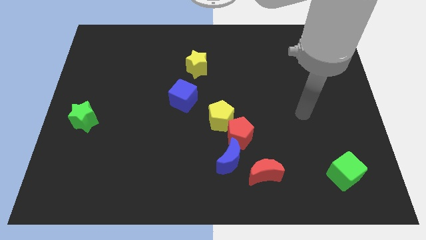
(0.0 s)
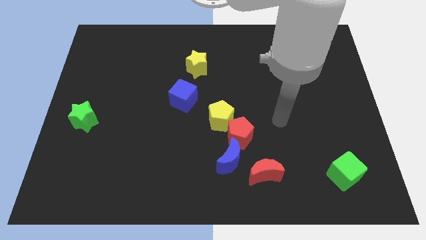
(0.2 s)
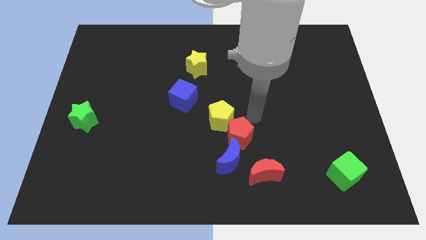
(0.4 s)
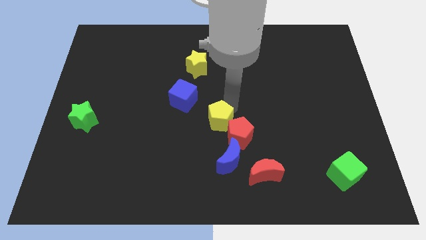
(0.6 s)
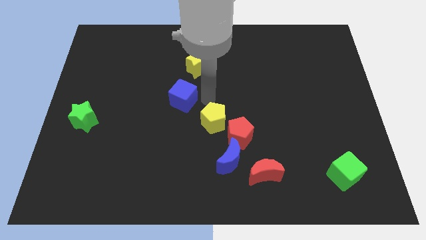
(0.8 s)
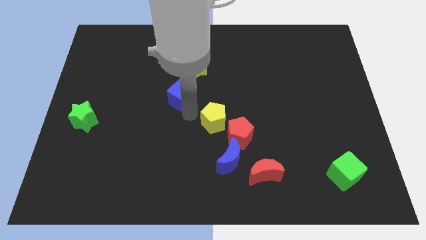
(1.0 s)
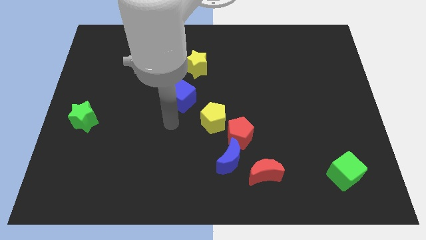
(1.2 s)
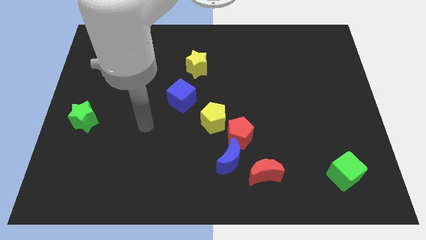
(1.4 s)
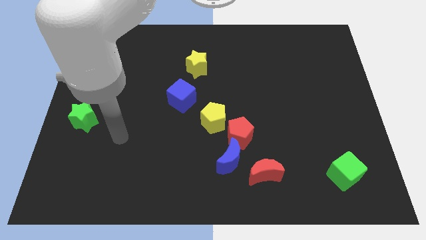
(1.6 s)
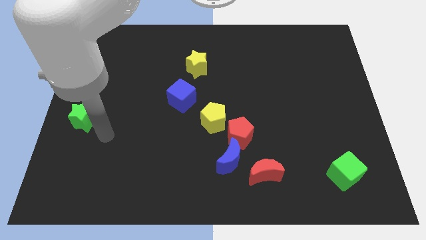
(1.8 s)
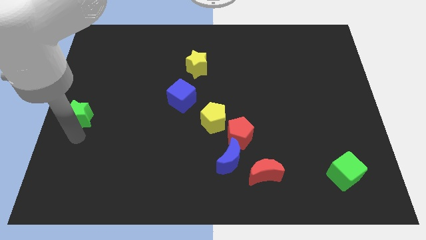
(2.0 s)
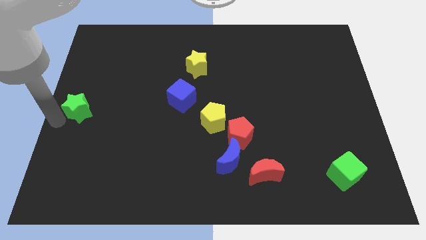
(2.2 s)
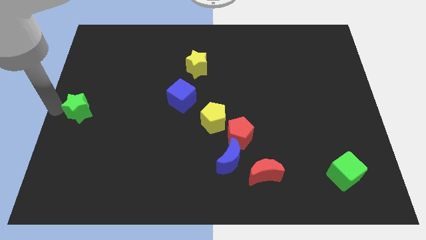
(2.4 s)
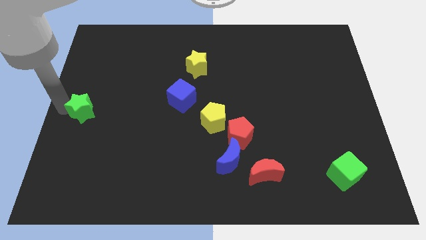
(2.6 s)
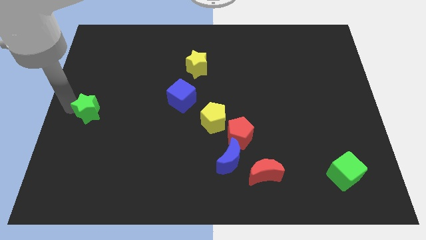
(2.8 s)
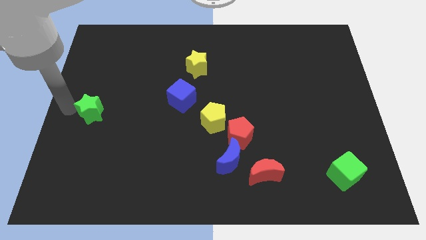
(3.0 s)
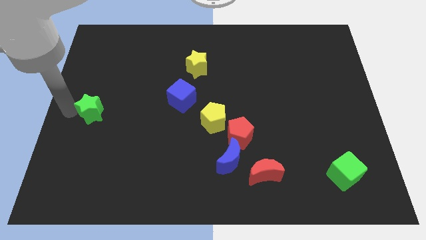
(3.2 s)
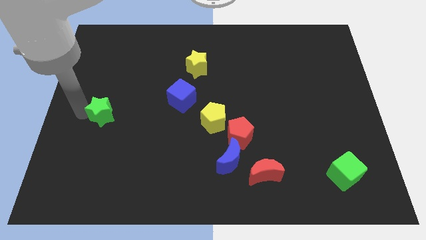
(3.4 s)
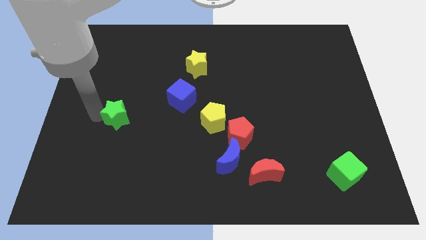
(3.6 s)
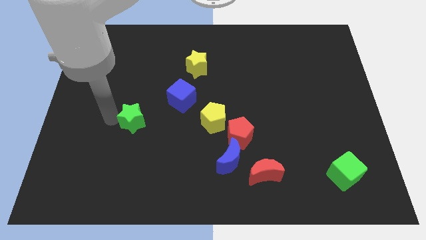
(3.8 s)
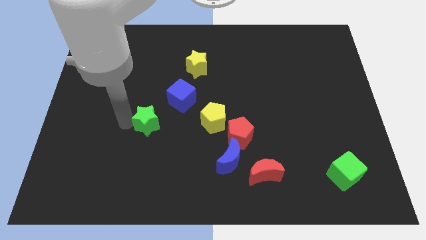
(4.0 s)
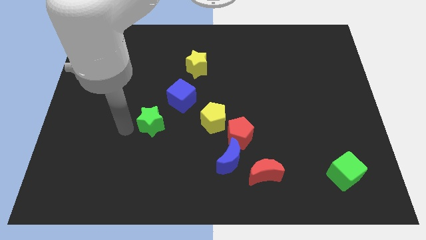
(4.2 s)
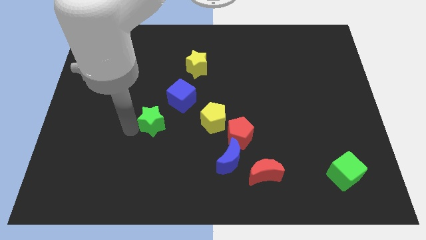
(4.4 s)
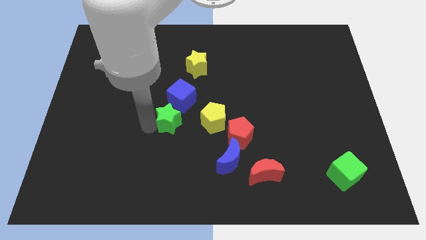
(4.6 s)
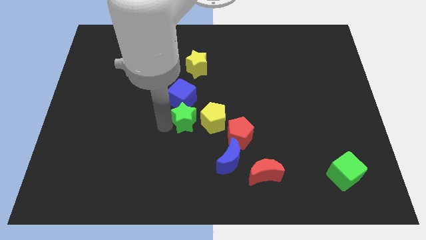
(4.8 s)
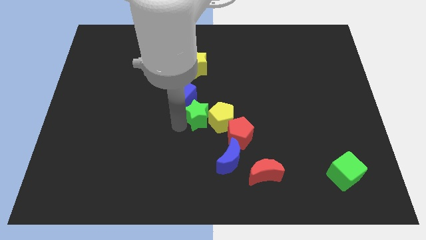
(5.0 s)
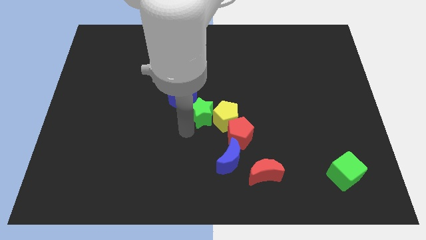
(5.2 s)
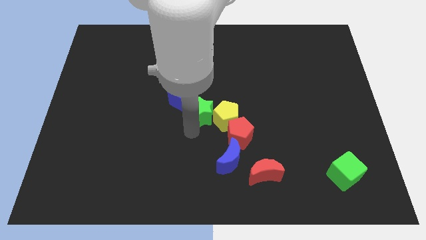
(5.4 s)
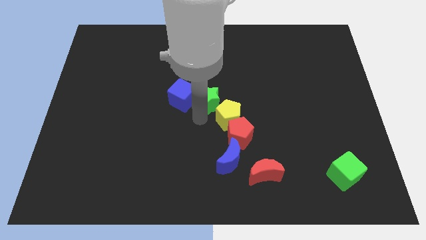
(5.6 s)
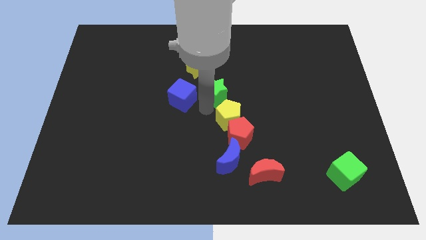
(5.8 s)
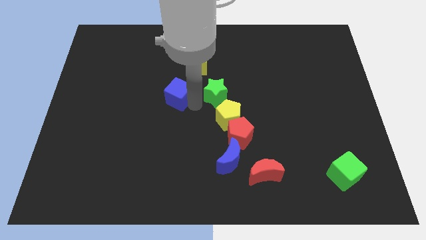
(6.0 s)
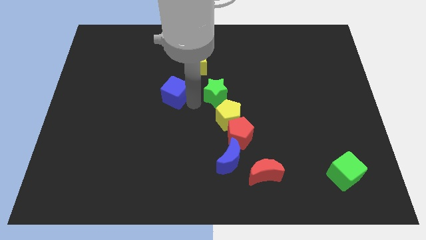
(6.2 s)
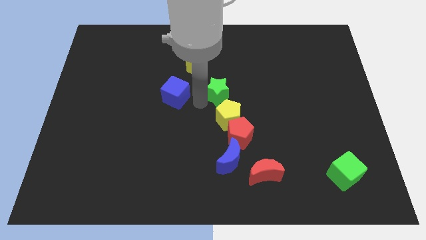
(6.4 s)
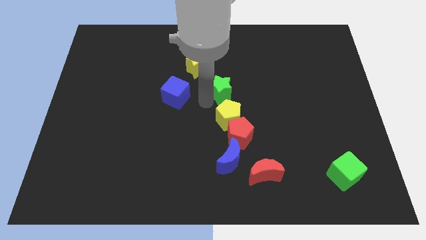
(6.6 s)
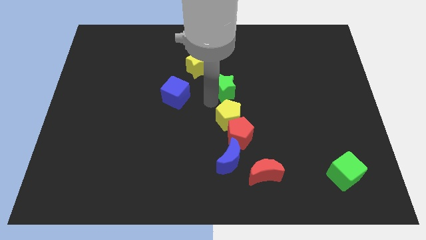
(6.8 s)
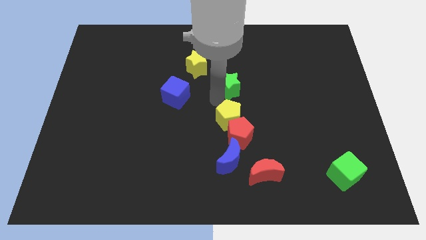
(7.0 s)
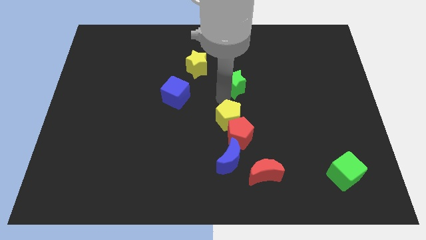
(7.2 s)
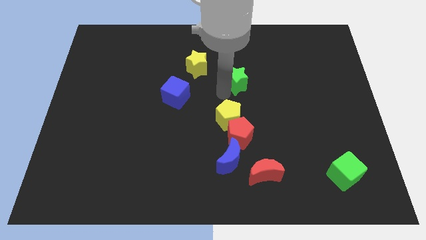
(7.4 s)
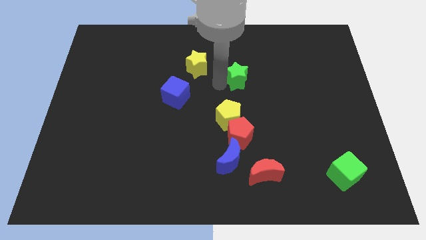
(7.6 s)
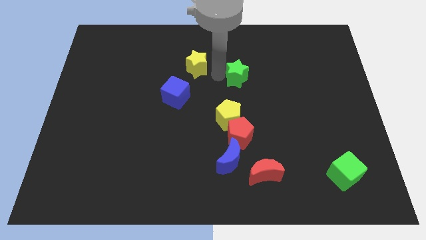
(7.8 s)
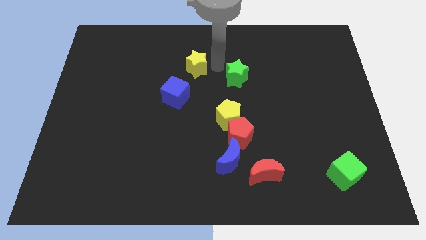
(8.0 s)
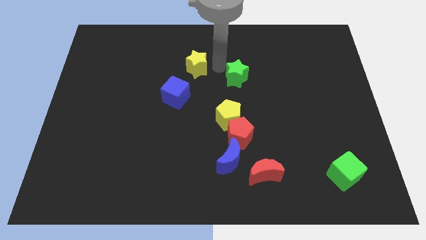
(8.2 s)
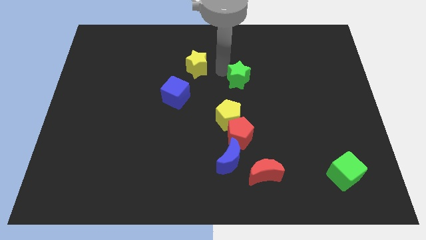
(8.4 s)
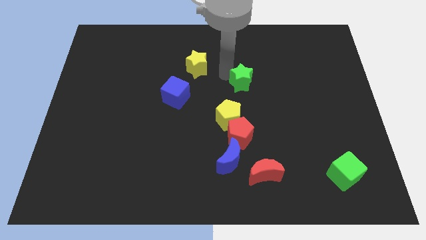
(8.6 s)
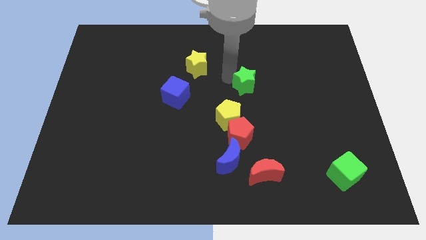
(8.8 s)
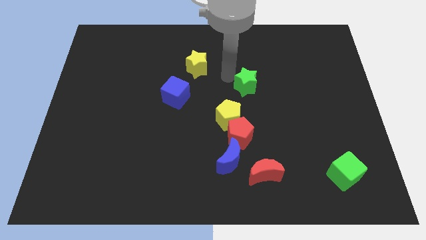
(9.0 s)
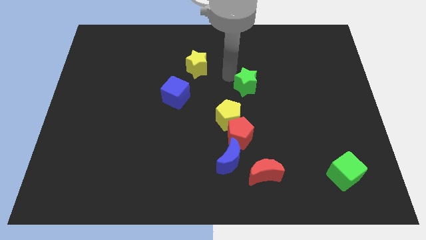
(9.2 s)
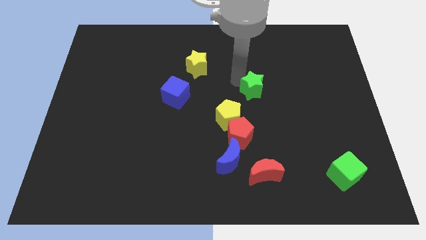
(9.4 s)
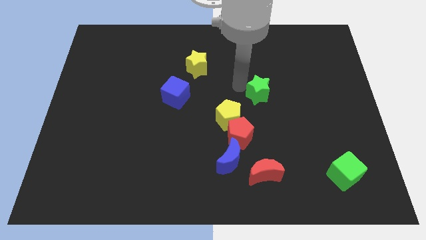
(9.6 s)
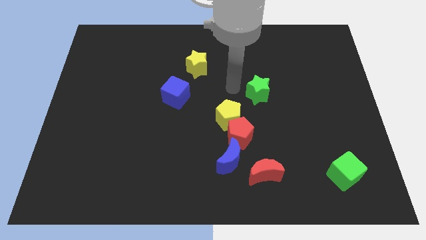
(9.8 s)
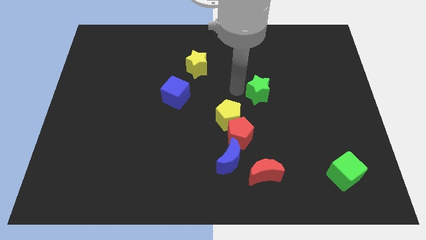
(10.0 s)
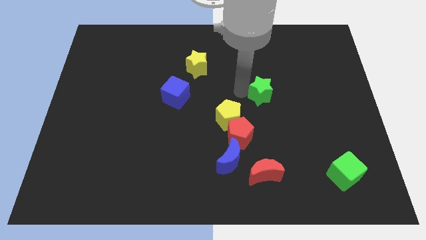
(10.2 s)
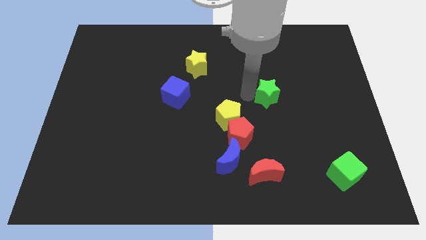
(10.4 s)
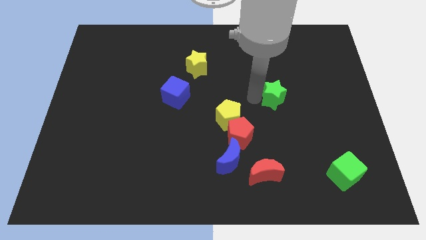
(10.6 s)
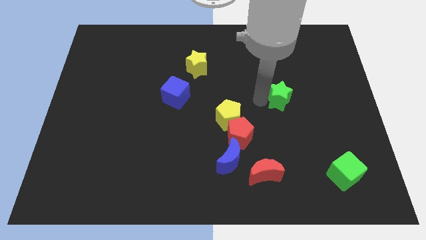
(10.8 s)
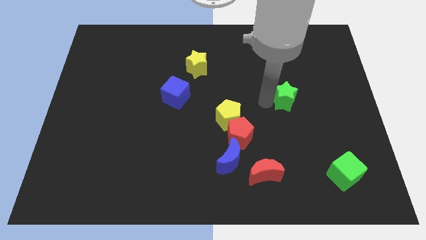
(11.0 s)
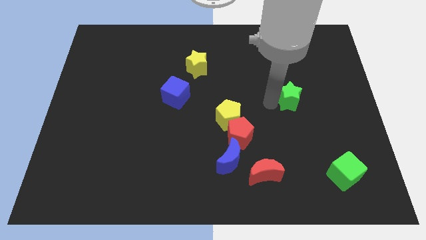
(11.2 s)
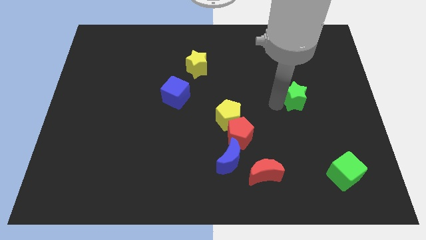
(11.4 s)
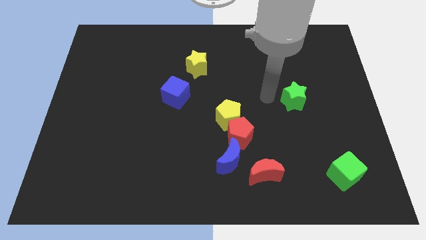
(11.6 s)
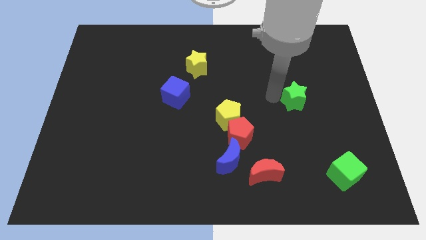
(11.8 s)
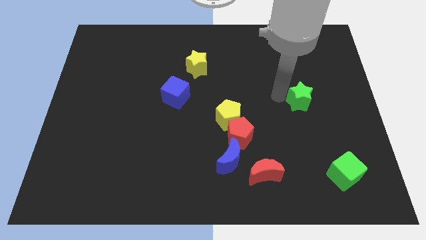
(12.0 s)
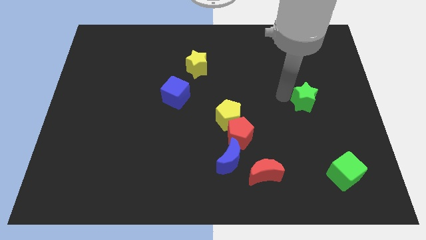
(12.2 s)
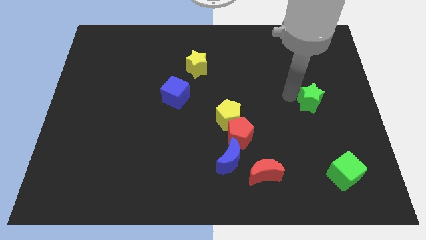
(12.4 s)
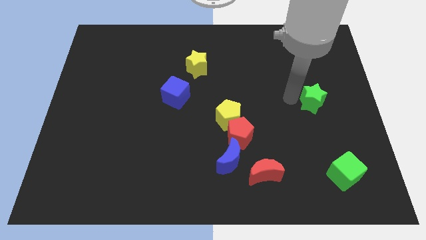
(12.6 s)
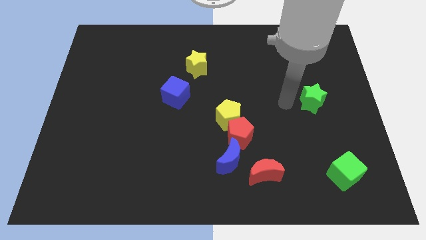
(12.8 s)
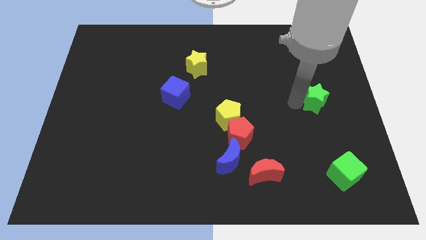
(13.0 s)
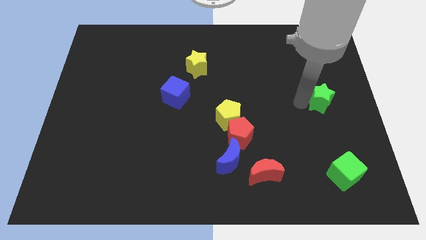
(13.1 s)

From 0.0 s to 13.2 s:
move the green star to the right side

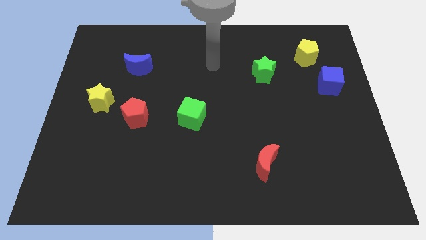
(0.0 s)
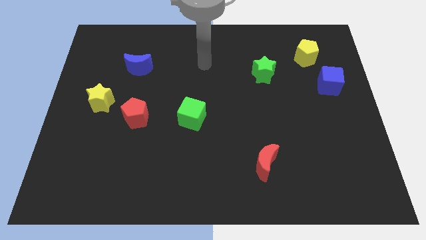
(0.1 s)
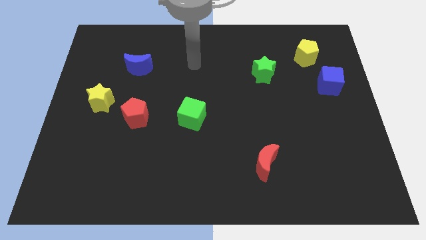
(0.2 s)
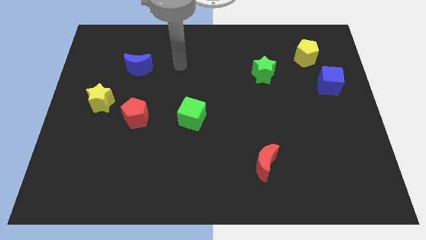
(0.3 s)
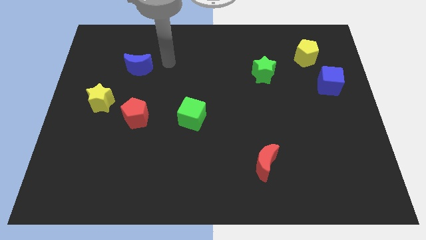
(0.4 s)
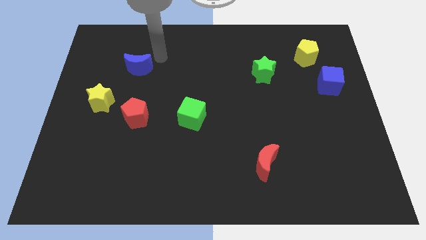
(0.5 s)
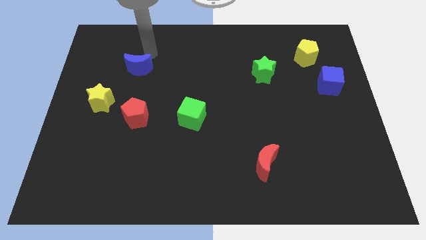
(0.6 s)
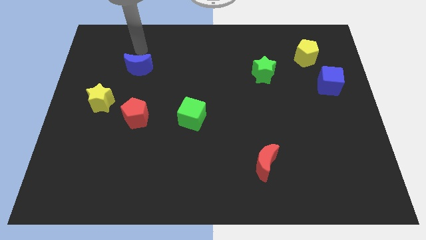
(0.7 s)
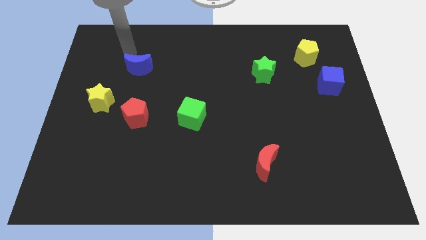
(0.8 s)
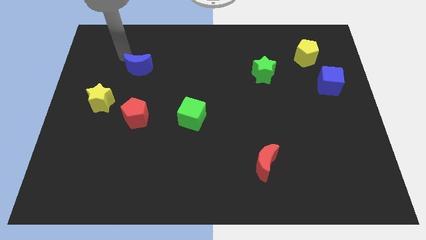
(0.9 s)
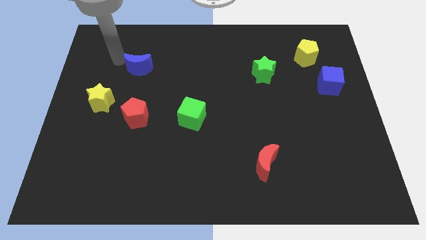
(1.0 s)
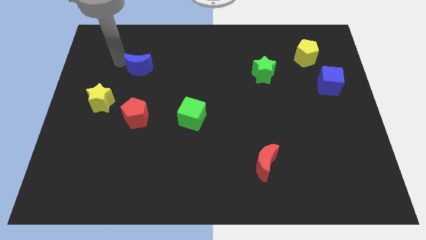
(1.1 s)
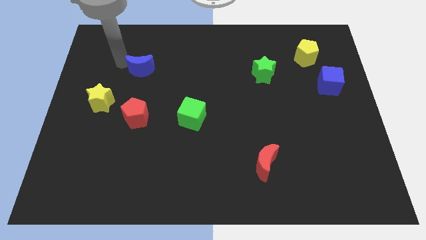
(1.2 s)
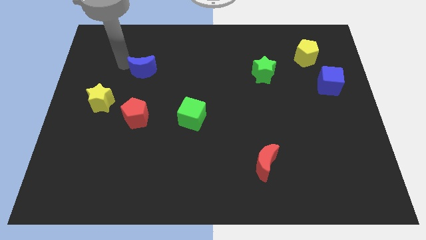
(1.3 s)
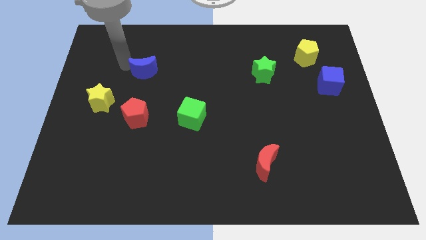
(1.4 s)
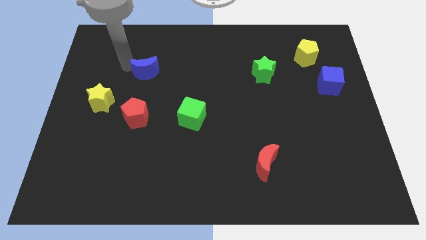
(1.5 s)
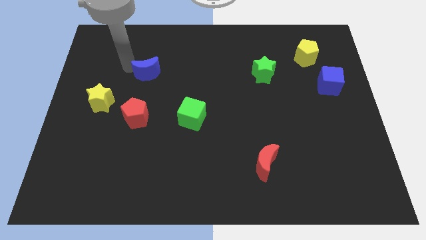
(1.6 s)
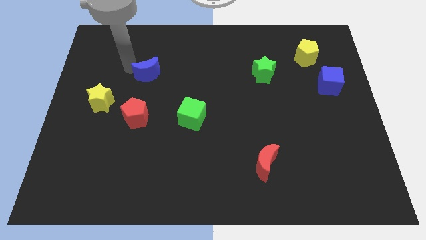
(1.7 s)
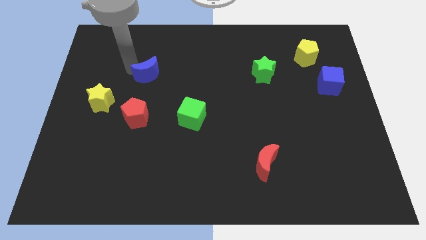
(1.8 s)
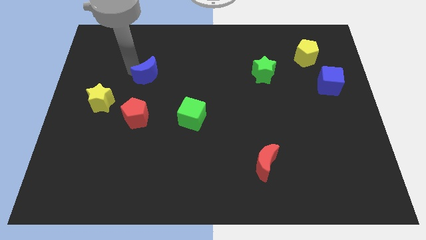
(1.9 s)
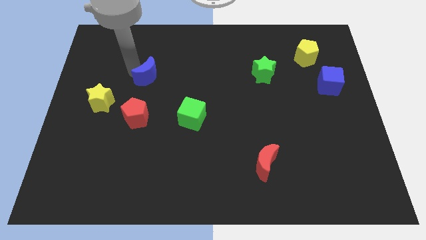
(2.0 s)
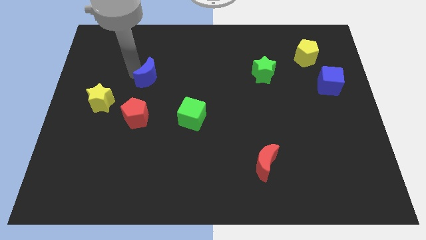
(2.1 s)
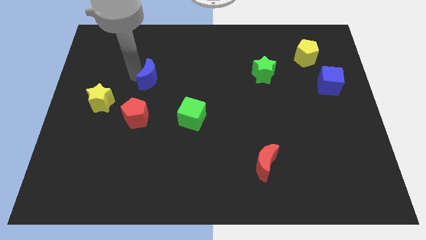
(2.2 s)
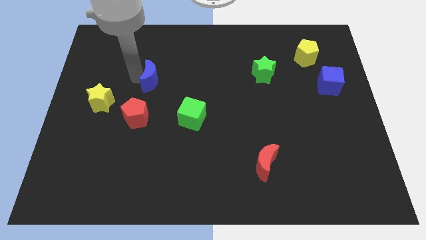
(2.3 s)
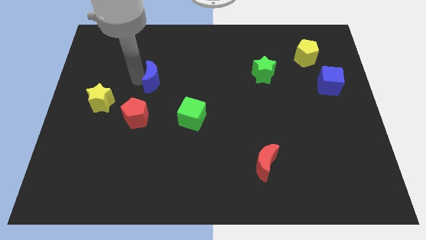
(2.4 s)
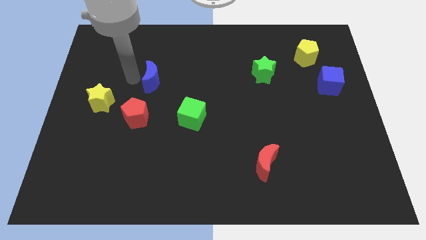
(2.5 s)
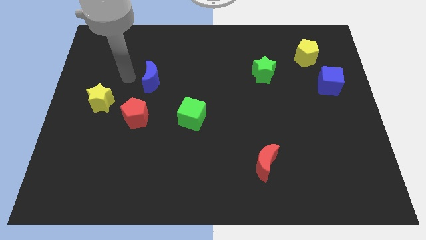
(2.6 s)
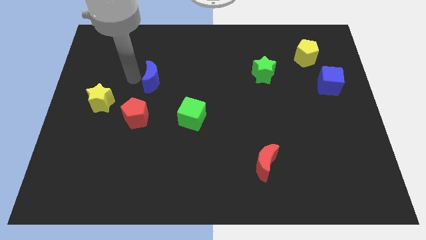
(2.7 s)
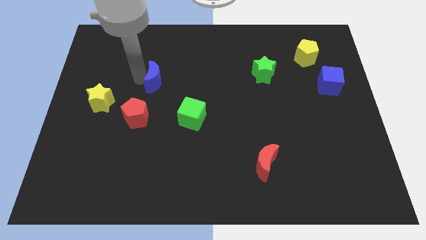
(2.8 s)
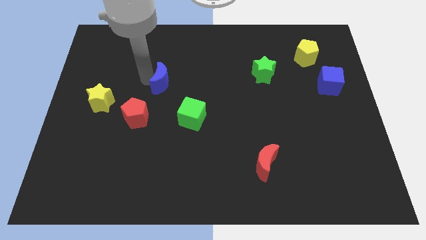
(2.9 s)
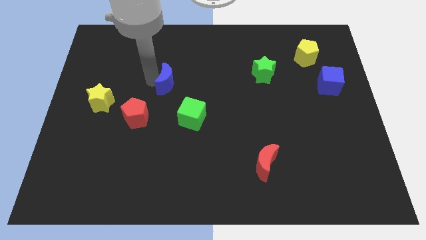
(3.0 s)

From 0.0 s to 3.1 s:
slide the blue moon to the middle
